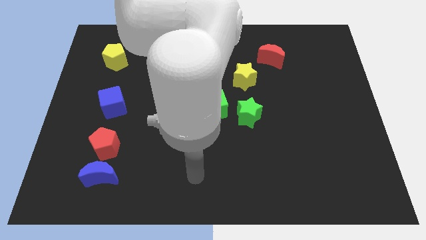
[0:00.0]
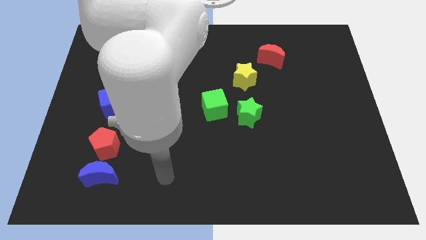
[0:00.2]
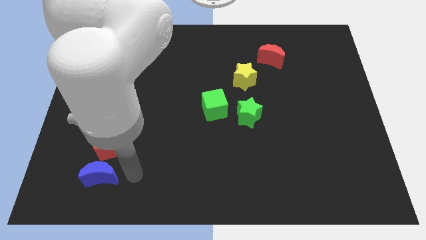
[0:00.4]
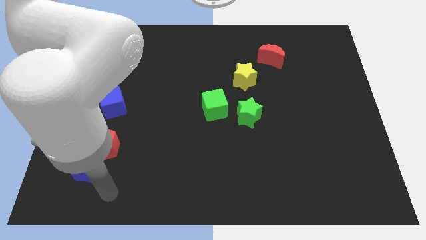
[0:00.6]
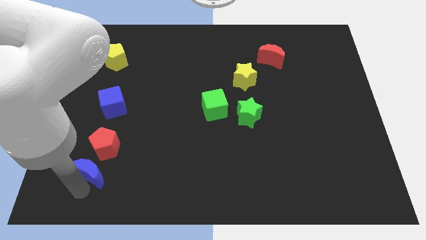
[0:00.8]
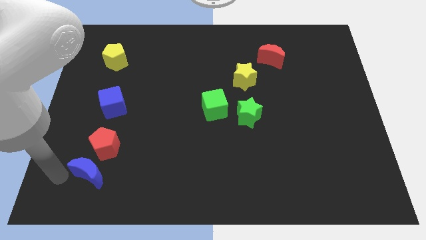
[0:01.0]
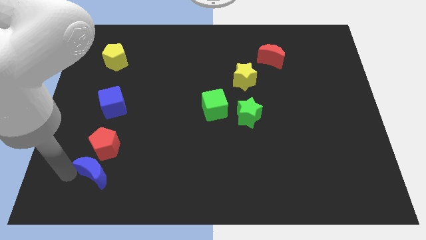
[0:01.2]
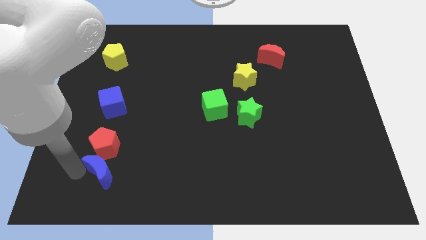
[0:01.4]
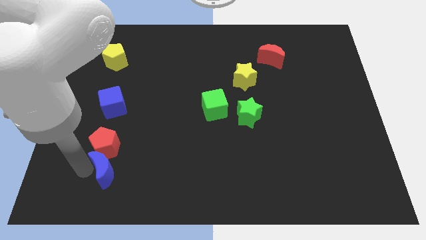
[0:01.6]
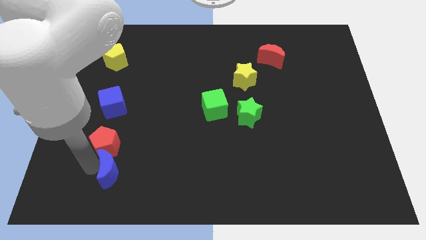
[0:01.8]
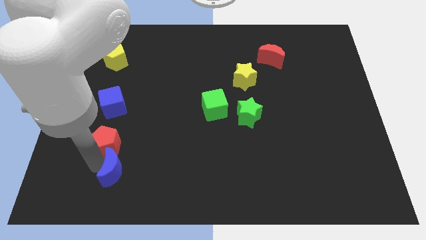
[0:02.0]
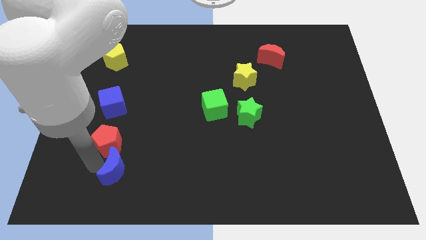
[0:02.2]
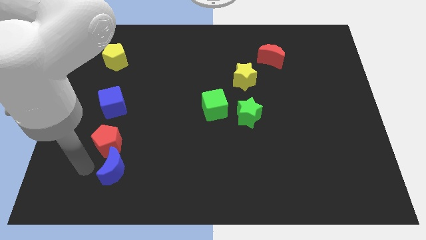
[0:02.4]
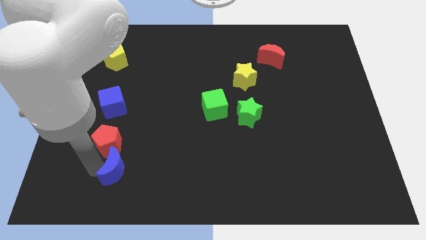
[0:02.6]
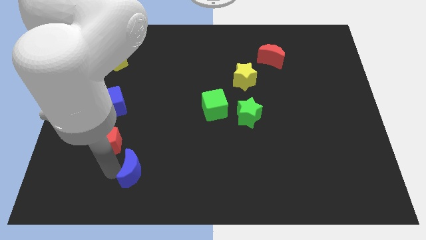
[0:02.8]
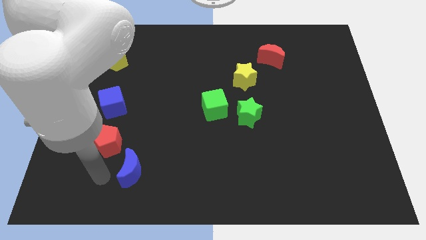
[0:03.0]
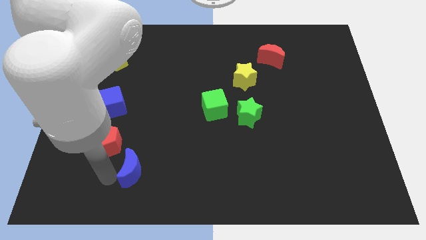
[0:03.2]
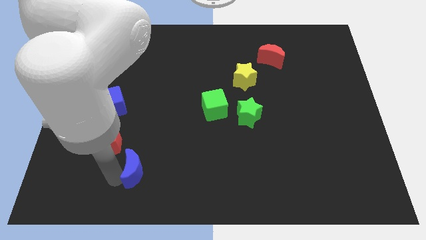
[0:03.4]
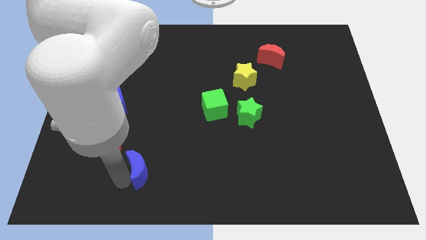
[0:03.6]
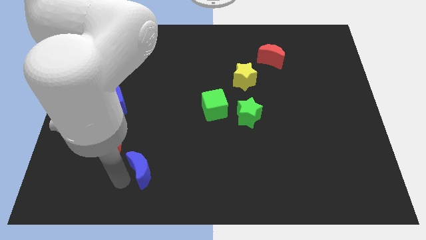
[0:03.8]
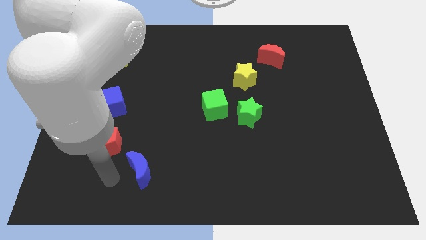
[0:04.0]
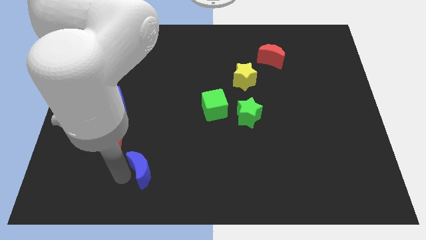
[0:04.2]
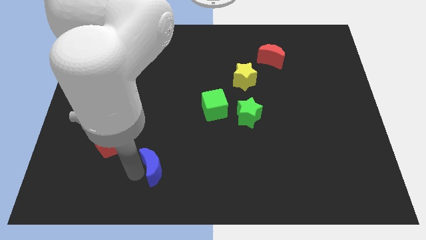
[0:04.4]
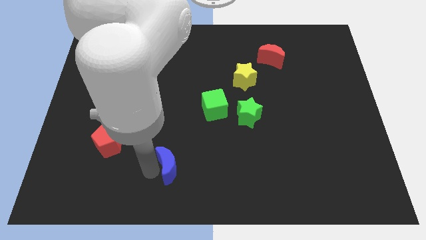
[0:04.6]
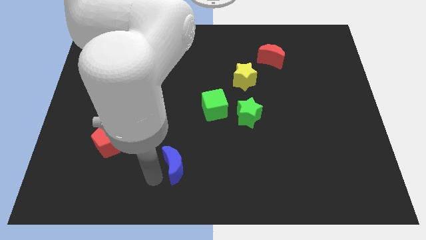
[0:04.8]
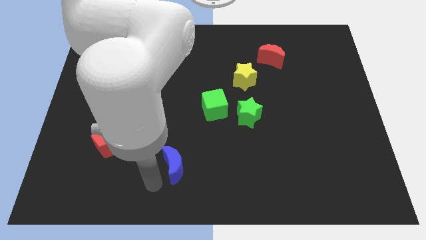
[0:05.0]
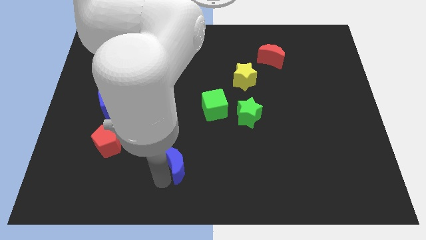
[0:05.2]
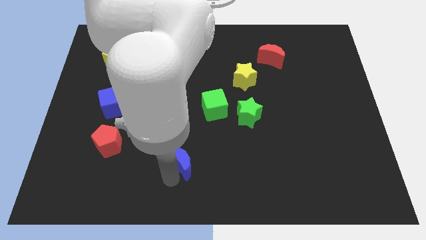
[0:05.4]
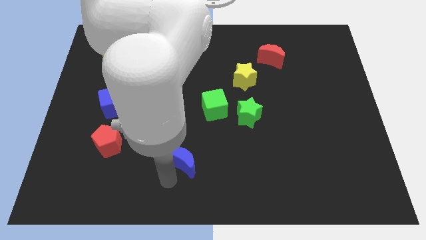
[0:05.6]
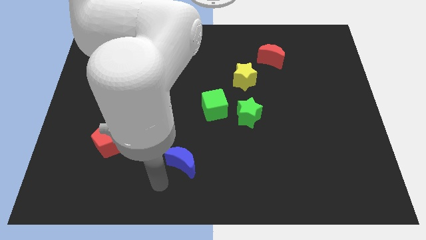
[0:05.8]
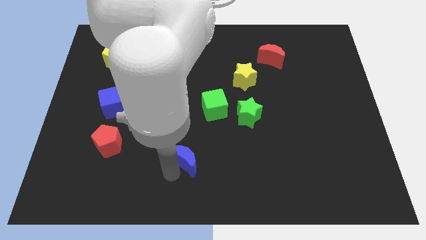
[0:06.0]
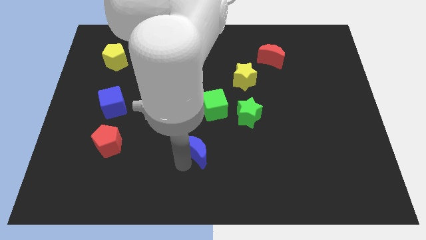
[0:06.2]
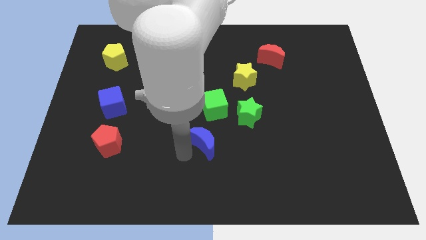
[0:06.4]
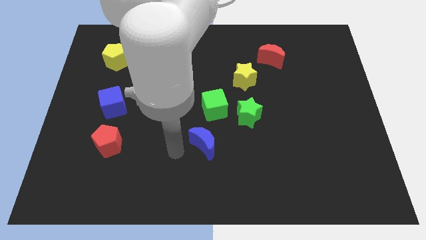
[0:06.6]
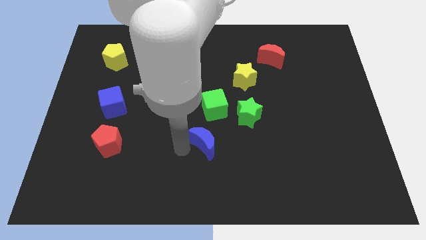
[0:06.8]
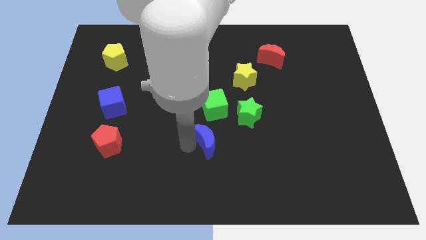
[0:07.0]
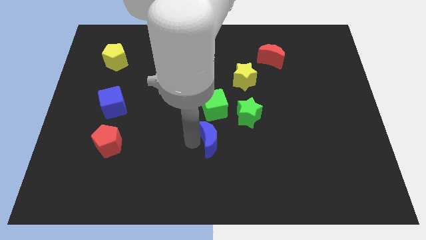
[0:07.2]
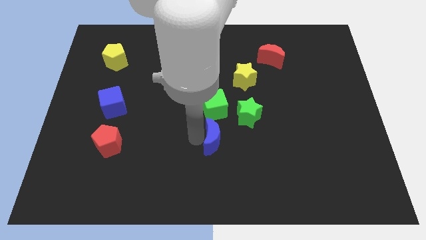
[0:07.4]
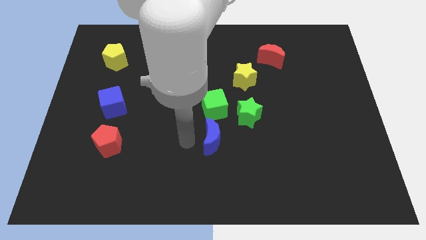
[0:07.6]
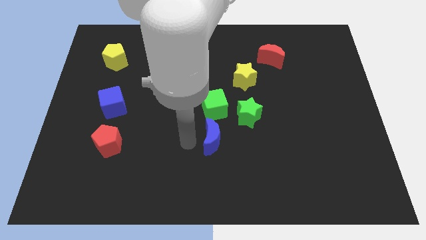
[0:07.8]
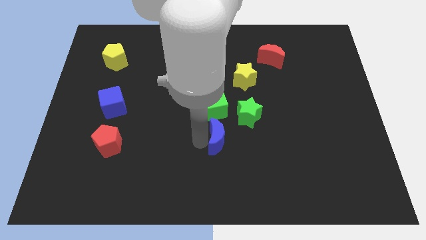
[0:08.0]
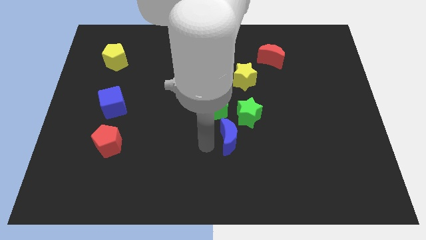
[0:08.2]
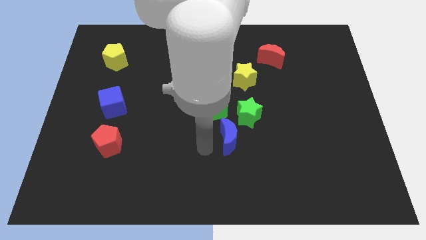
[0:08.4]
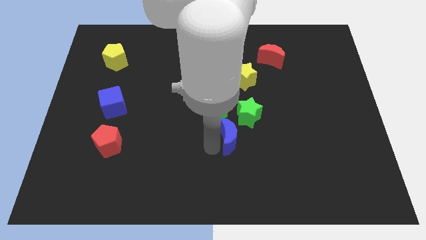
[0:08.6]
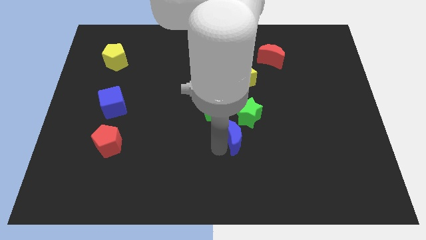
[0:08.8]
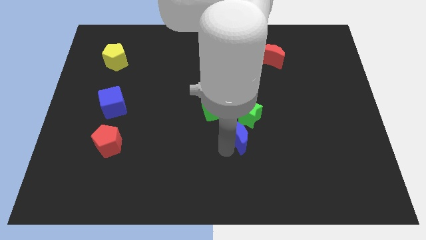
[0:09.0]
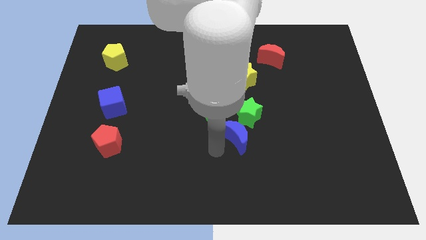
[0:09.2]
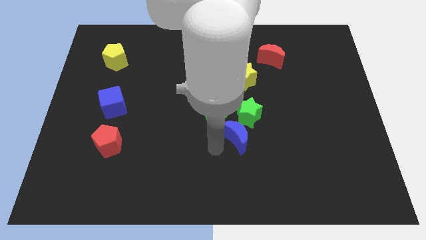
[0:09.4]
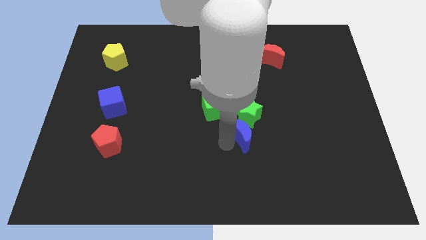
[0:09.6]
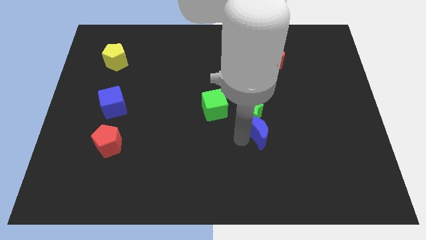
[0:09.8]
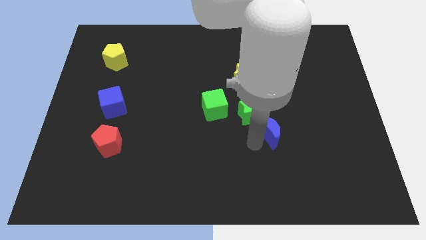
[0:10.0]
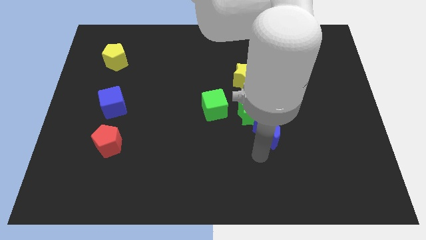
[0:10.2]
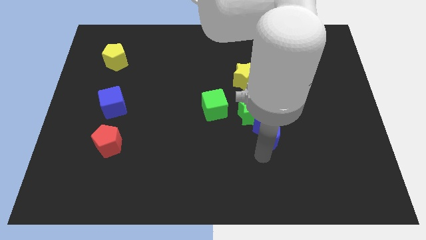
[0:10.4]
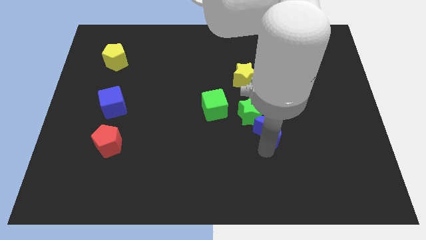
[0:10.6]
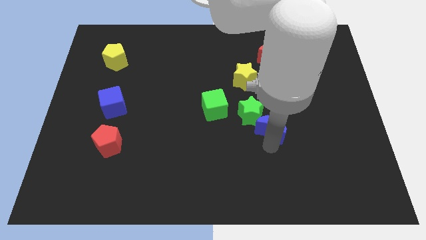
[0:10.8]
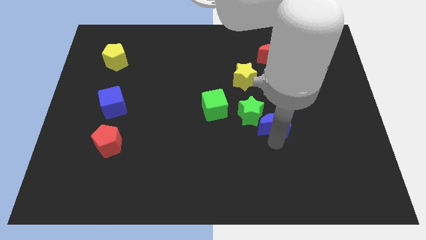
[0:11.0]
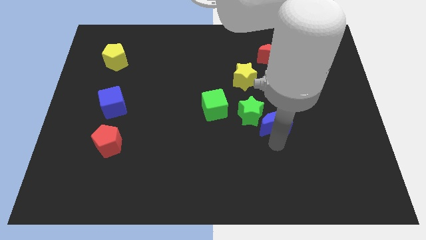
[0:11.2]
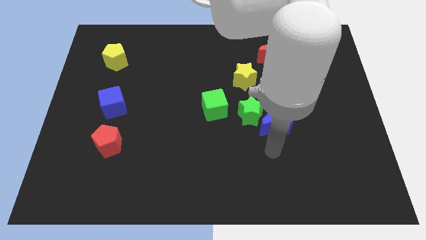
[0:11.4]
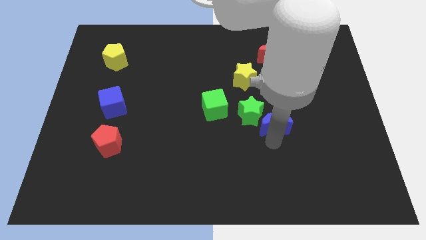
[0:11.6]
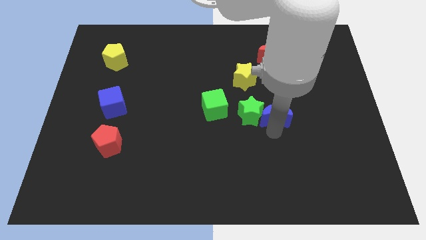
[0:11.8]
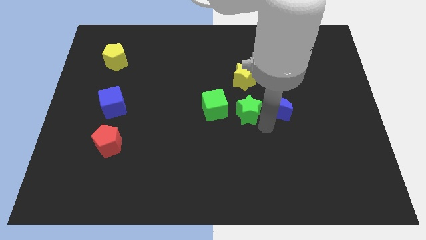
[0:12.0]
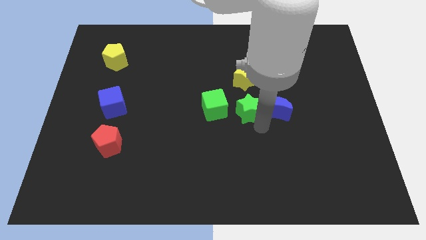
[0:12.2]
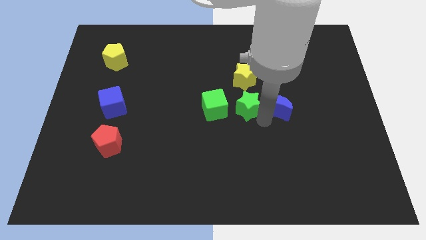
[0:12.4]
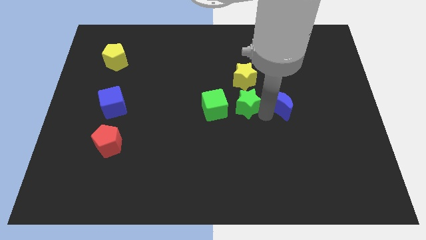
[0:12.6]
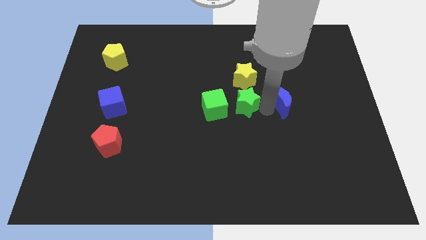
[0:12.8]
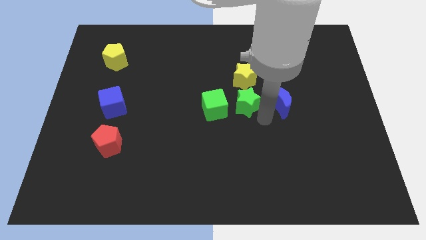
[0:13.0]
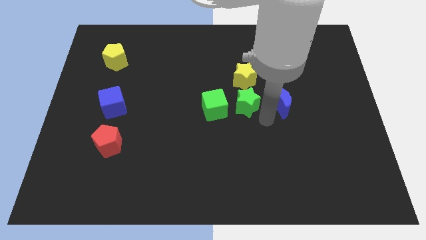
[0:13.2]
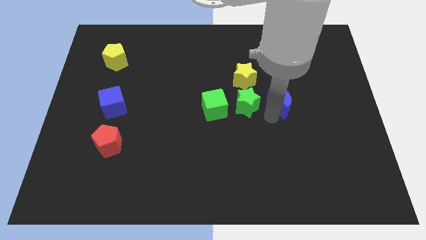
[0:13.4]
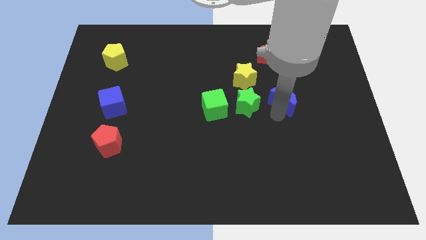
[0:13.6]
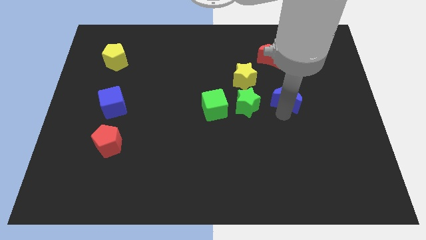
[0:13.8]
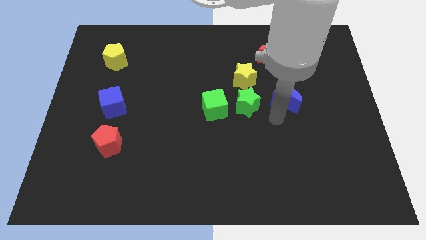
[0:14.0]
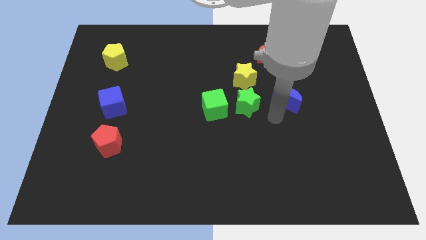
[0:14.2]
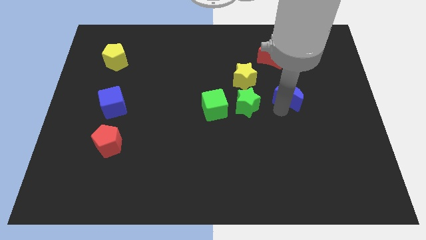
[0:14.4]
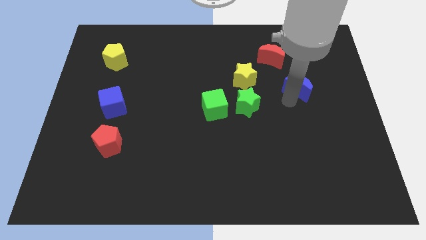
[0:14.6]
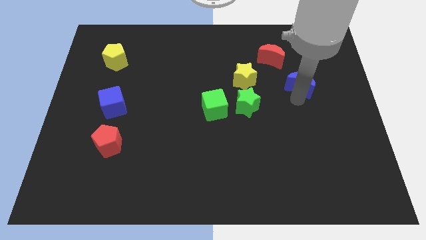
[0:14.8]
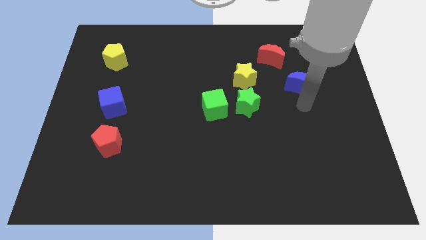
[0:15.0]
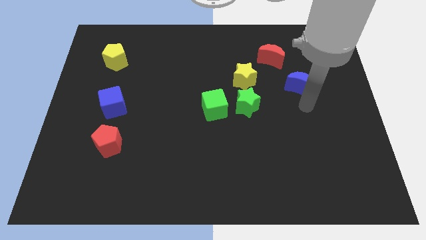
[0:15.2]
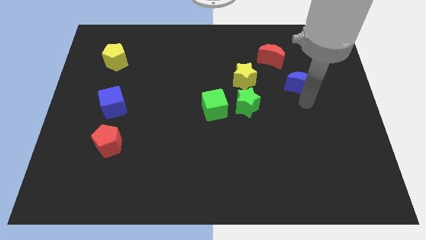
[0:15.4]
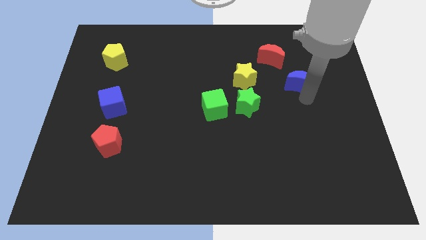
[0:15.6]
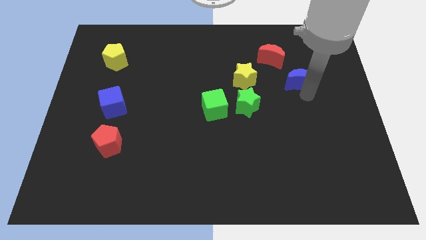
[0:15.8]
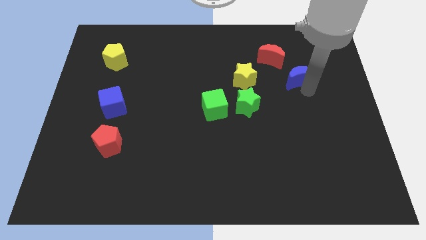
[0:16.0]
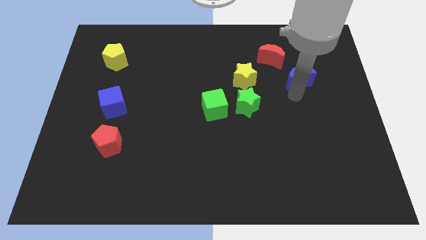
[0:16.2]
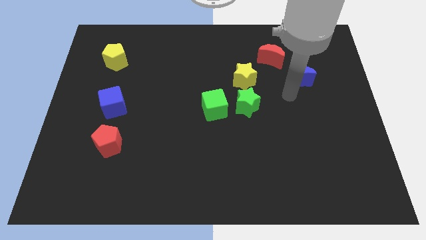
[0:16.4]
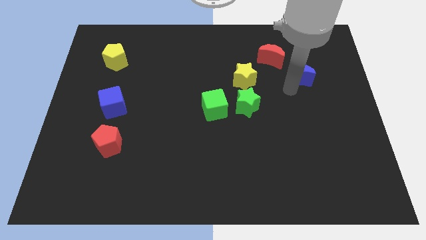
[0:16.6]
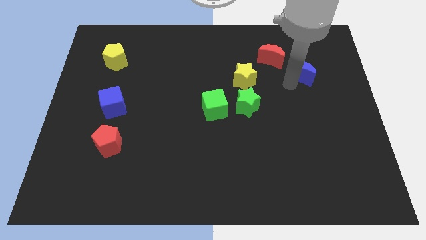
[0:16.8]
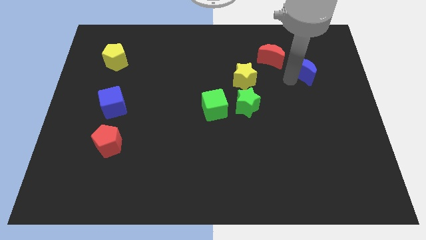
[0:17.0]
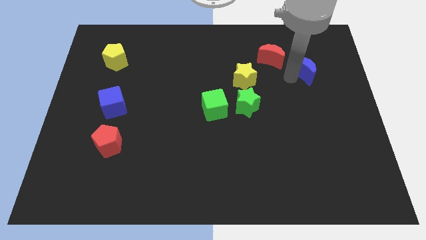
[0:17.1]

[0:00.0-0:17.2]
put the blue moon just right of the red moon
